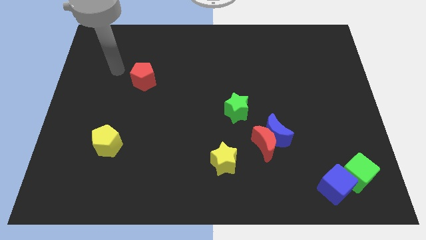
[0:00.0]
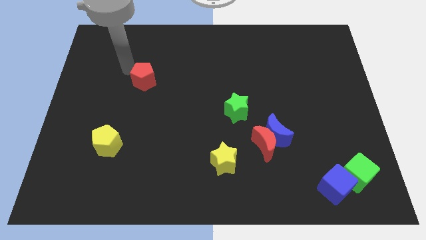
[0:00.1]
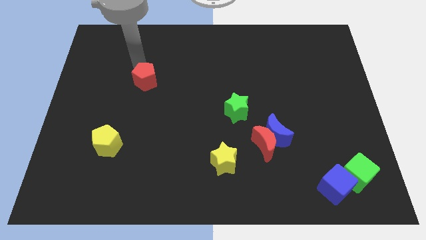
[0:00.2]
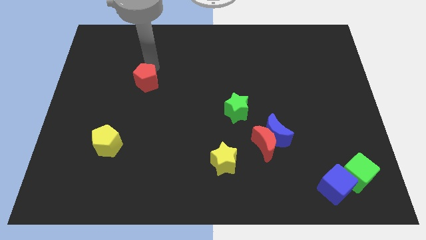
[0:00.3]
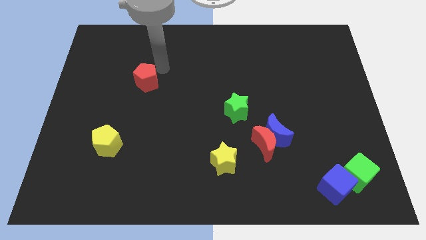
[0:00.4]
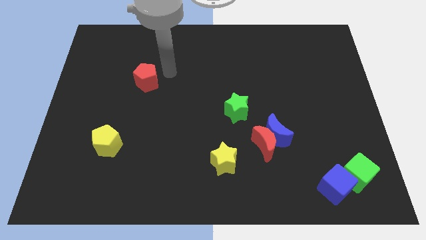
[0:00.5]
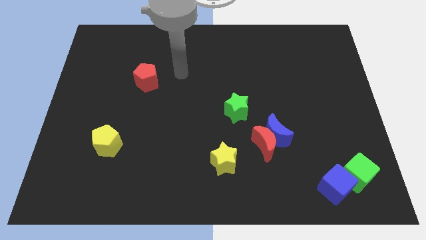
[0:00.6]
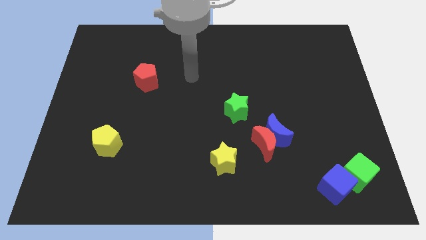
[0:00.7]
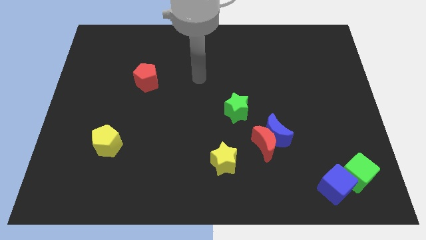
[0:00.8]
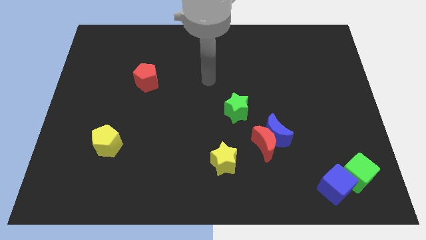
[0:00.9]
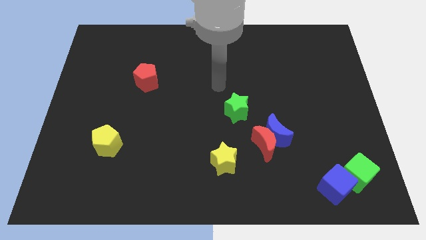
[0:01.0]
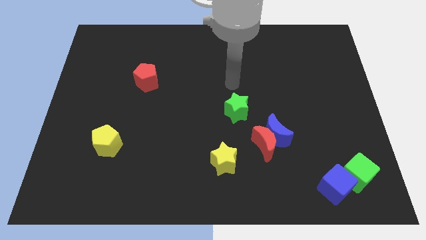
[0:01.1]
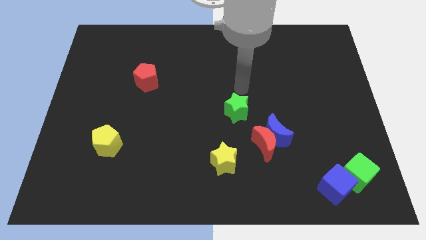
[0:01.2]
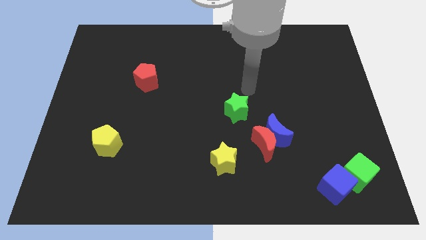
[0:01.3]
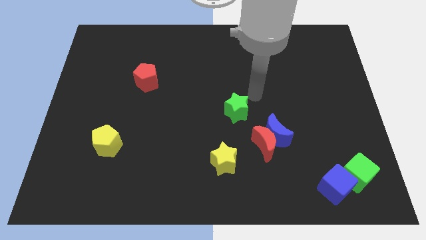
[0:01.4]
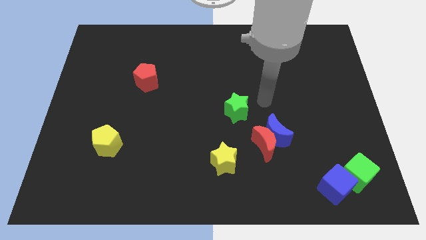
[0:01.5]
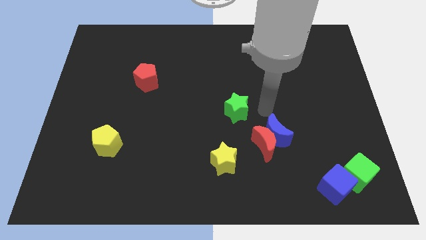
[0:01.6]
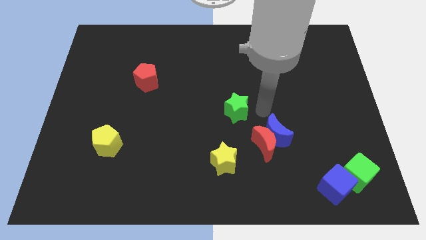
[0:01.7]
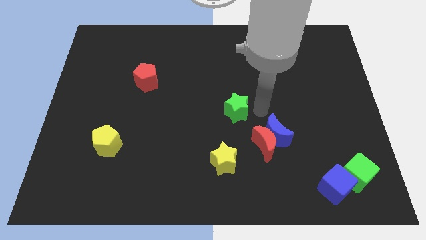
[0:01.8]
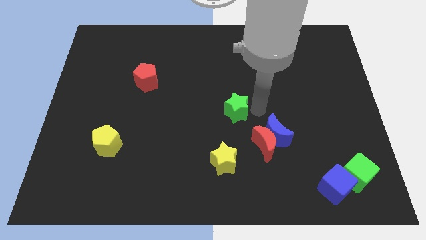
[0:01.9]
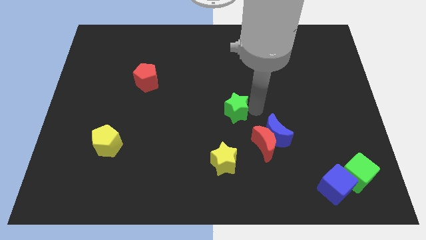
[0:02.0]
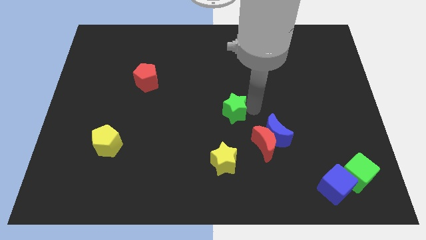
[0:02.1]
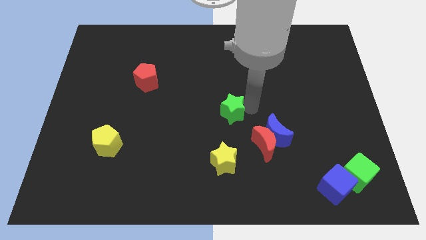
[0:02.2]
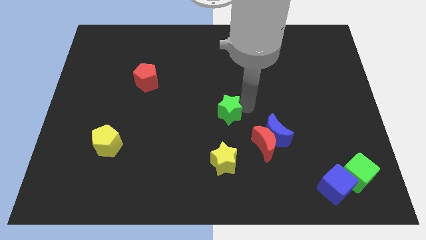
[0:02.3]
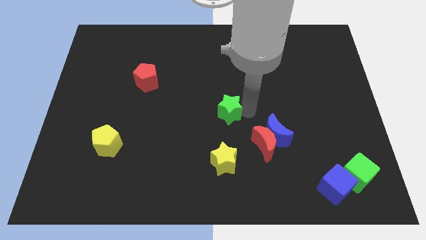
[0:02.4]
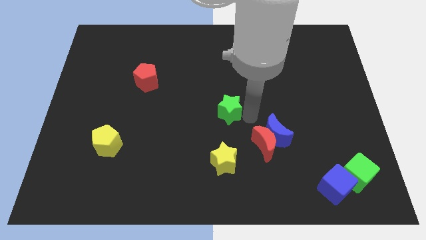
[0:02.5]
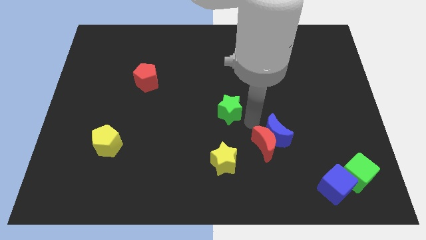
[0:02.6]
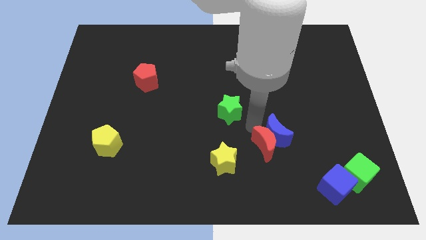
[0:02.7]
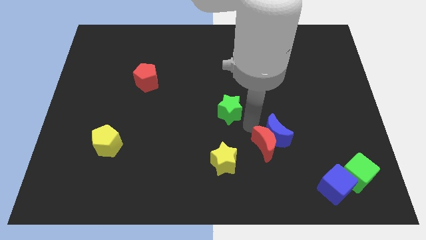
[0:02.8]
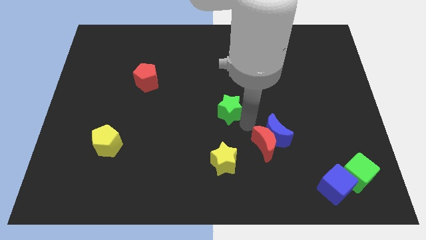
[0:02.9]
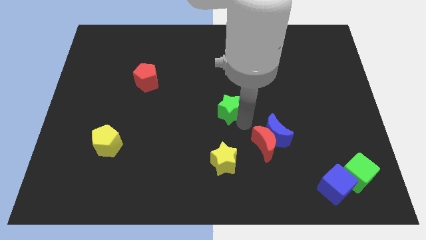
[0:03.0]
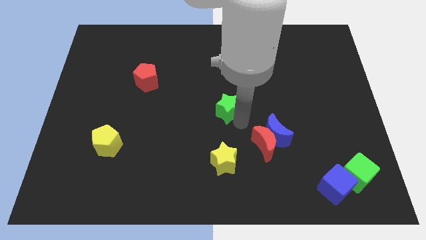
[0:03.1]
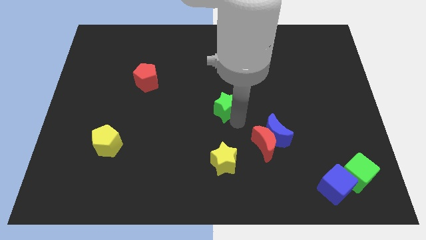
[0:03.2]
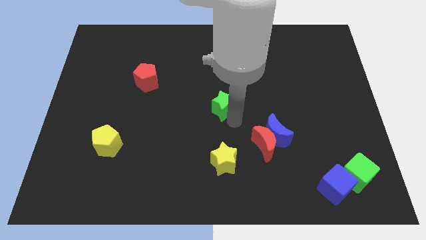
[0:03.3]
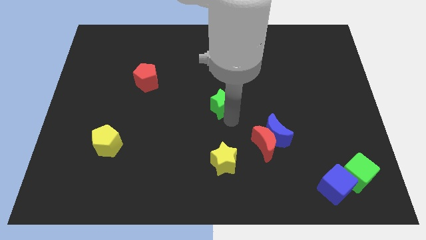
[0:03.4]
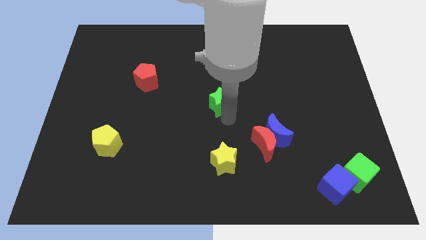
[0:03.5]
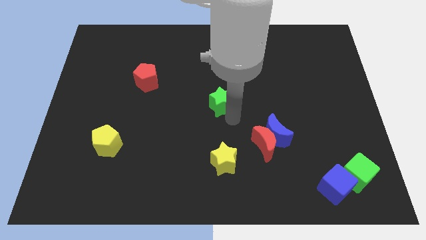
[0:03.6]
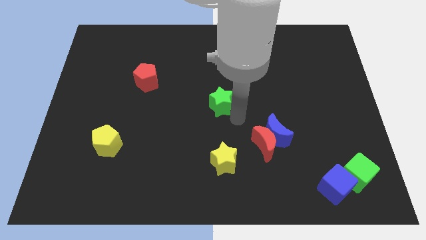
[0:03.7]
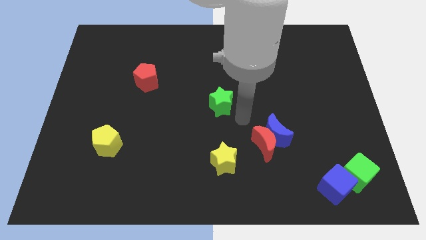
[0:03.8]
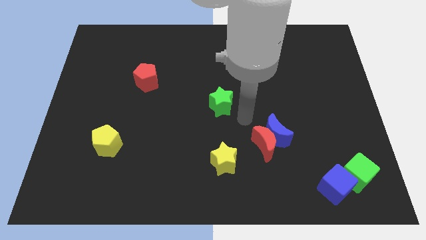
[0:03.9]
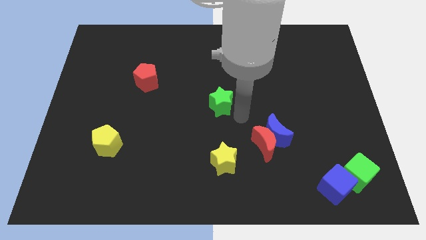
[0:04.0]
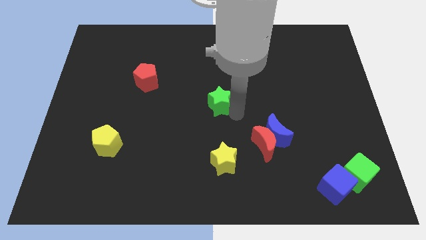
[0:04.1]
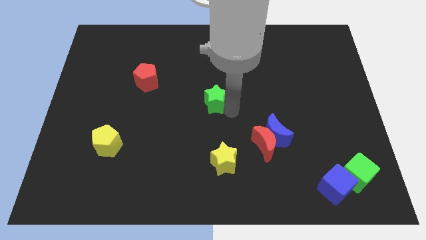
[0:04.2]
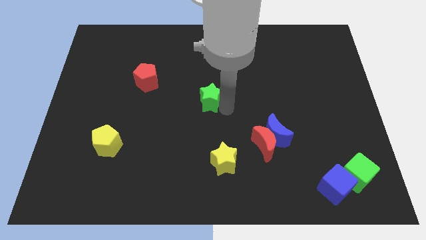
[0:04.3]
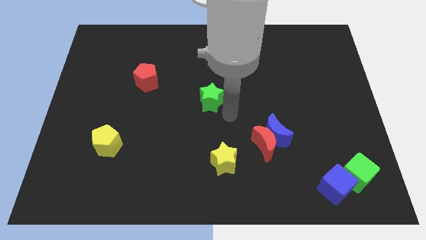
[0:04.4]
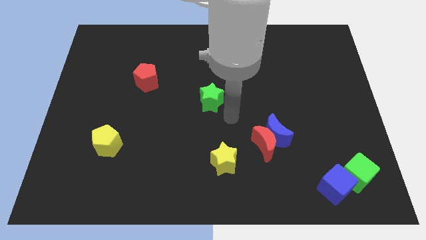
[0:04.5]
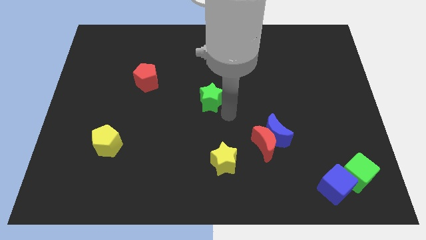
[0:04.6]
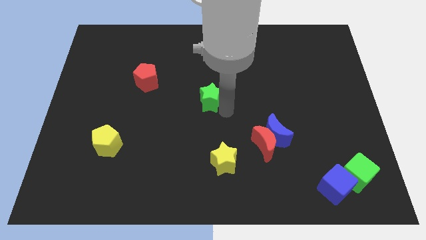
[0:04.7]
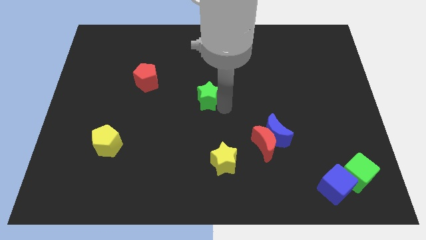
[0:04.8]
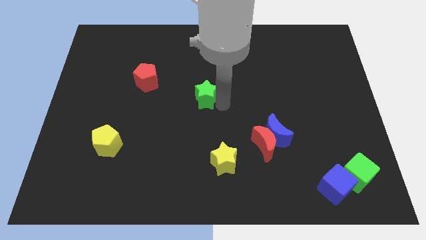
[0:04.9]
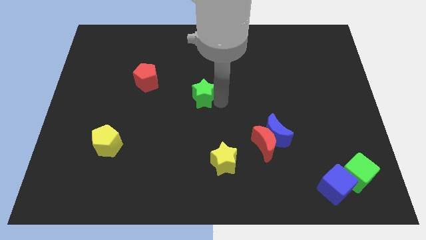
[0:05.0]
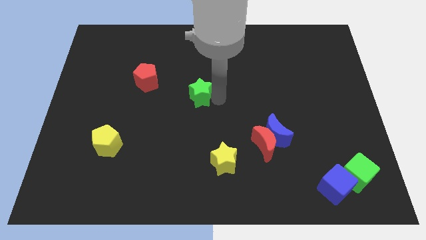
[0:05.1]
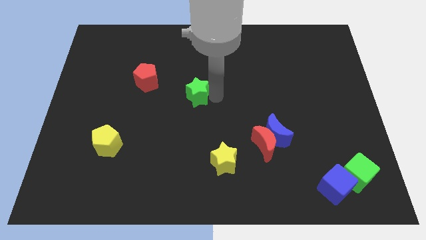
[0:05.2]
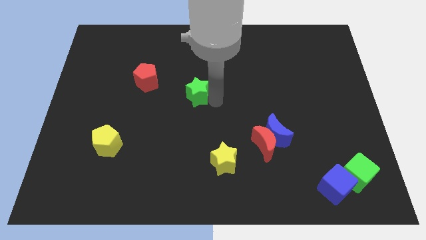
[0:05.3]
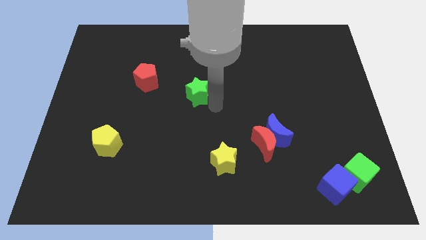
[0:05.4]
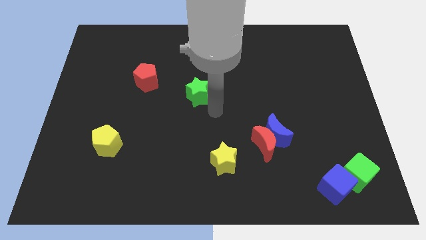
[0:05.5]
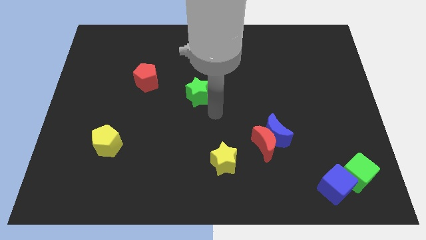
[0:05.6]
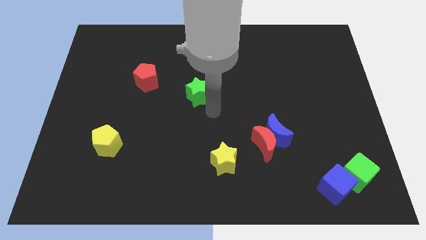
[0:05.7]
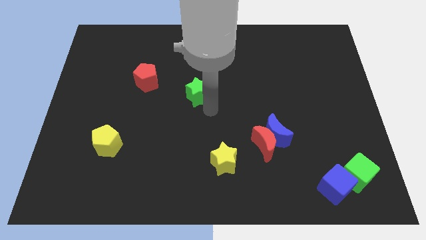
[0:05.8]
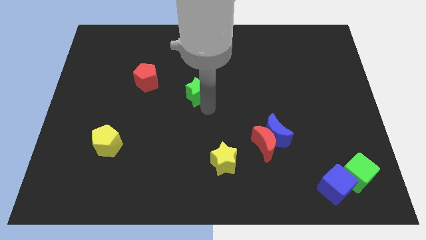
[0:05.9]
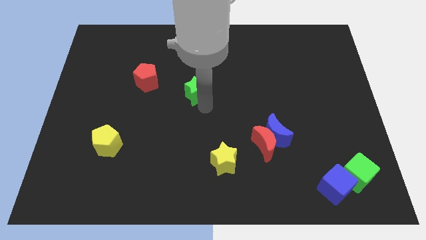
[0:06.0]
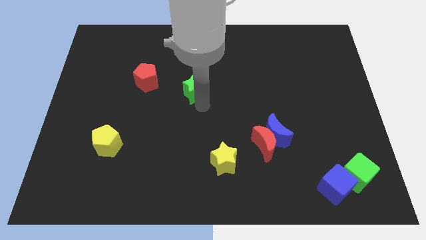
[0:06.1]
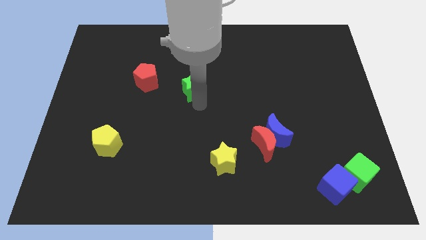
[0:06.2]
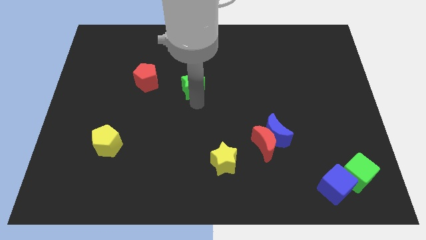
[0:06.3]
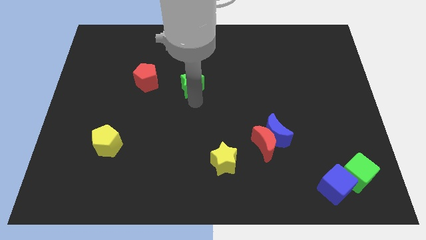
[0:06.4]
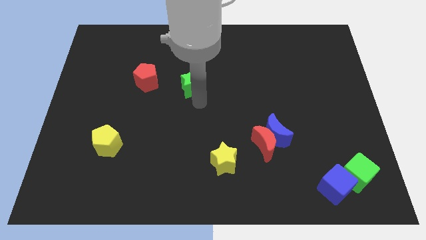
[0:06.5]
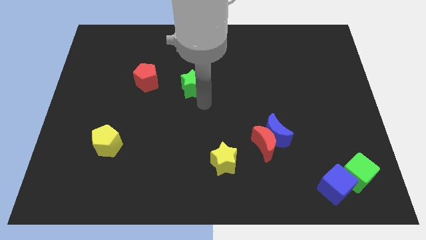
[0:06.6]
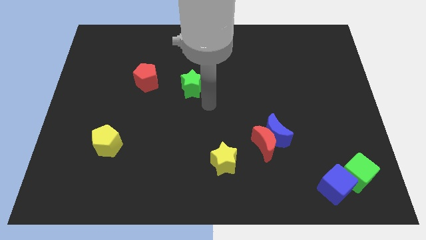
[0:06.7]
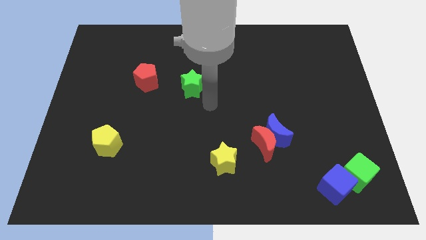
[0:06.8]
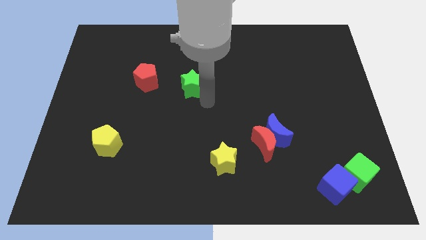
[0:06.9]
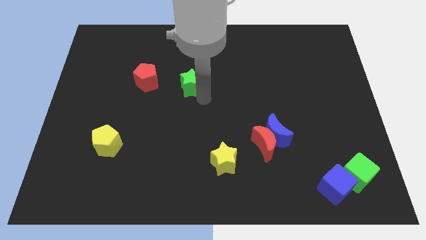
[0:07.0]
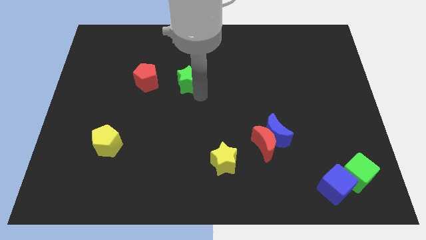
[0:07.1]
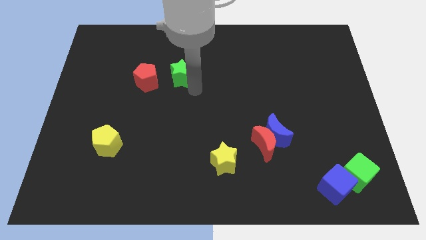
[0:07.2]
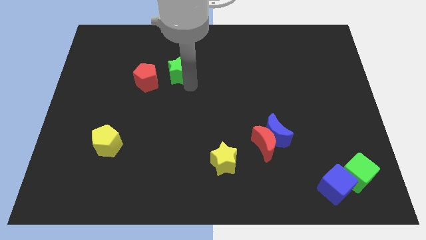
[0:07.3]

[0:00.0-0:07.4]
put the green star to the top right side of the red pentagon
